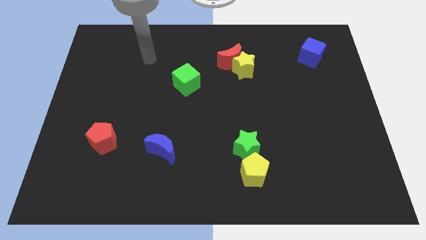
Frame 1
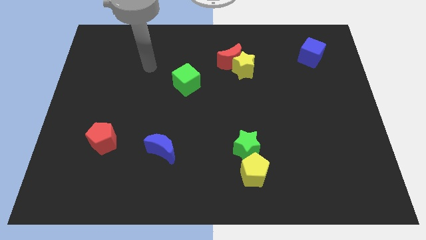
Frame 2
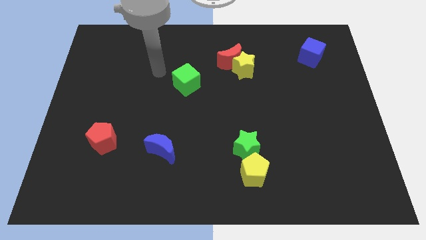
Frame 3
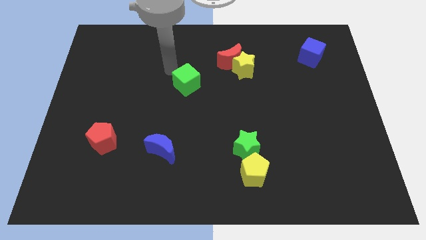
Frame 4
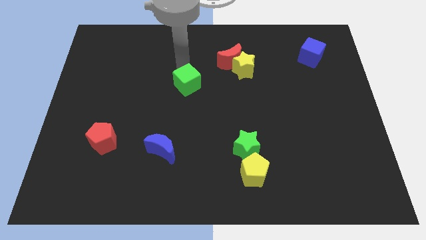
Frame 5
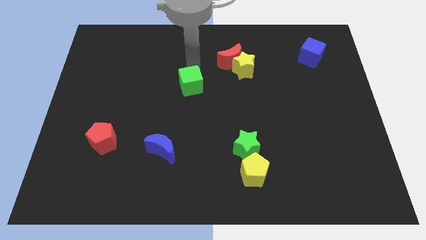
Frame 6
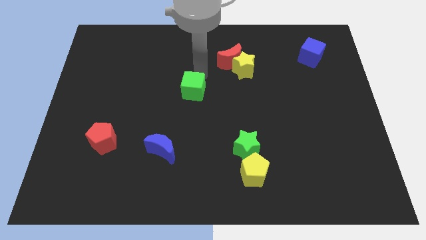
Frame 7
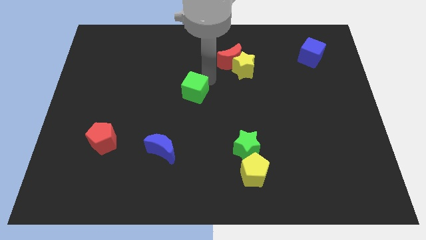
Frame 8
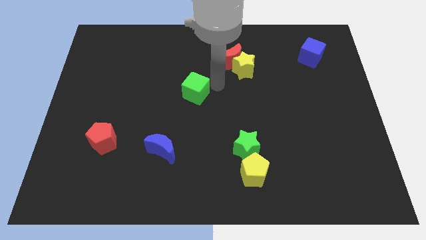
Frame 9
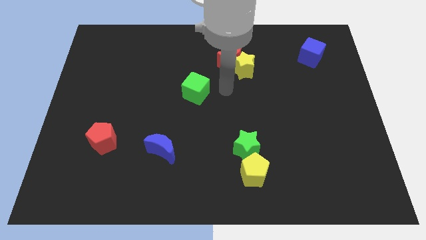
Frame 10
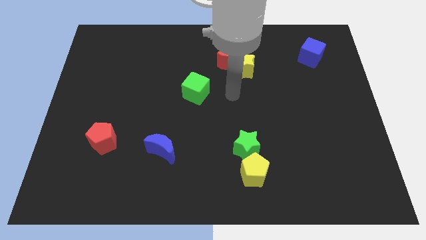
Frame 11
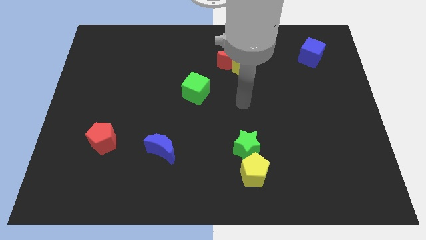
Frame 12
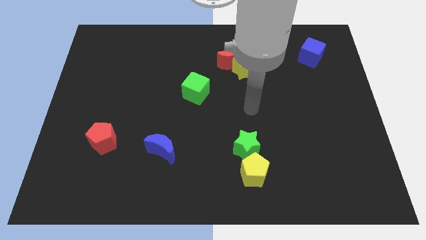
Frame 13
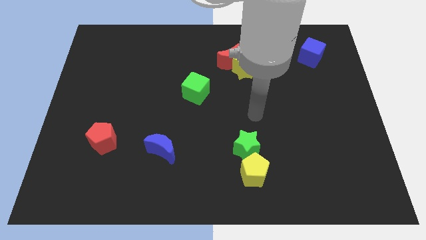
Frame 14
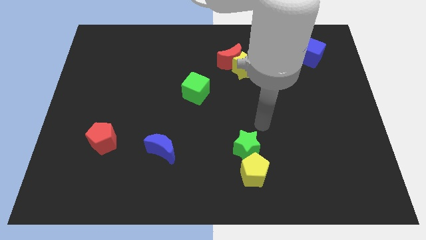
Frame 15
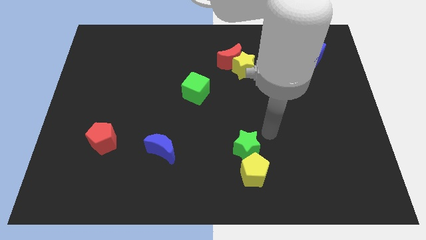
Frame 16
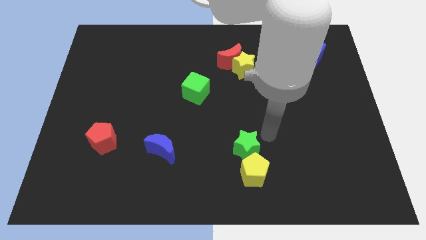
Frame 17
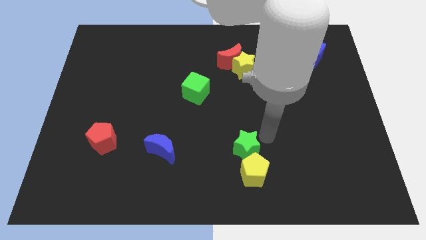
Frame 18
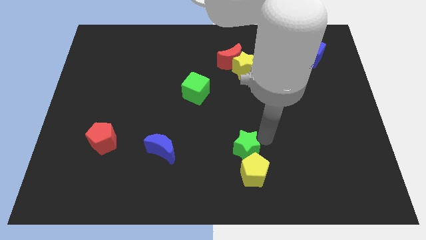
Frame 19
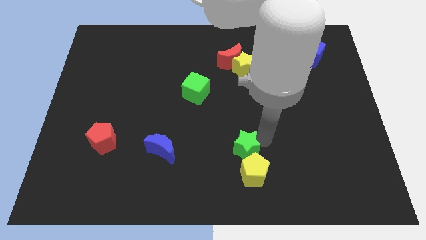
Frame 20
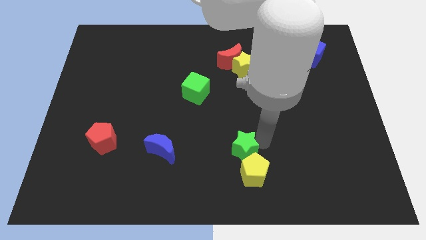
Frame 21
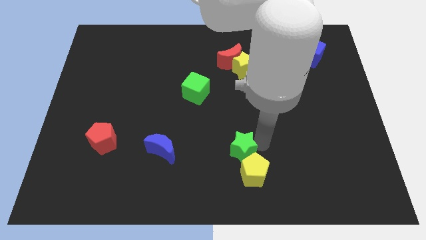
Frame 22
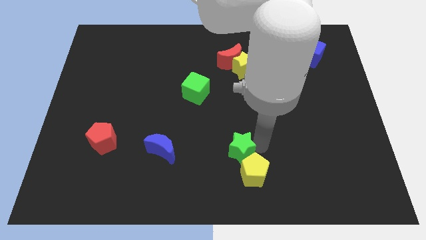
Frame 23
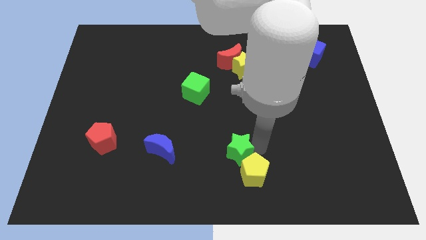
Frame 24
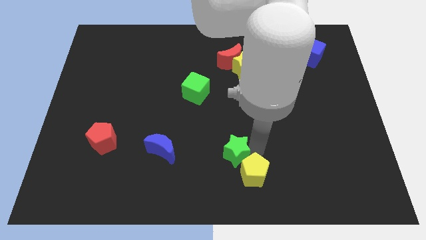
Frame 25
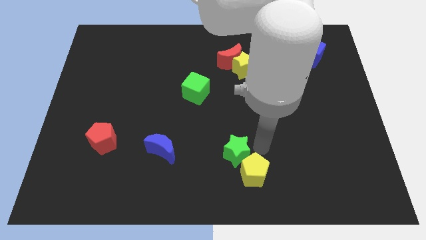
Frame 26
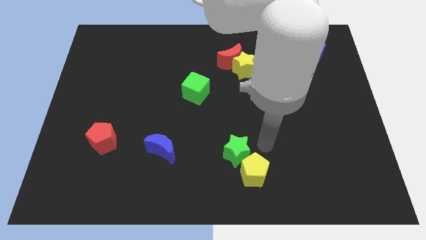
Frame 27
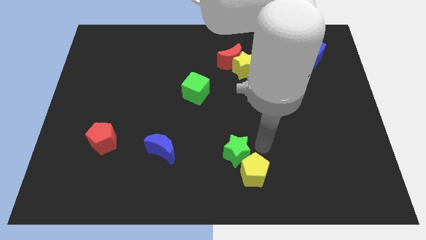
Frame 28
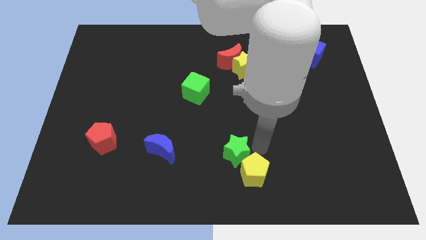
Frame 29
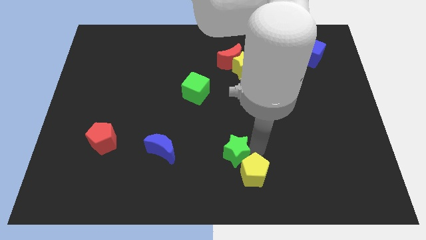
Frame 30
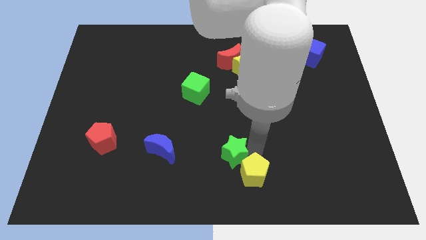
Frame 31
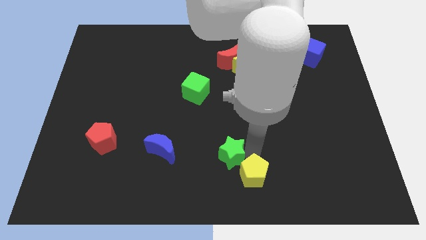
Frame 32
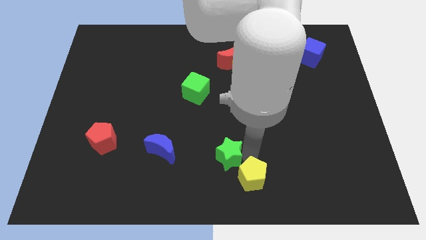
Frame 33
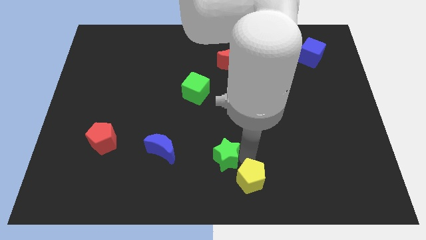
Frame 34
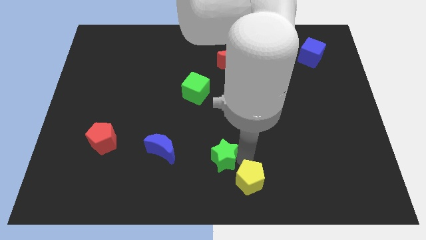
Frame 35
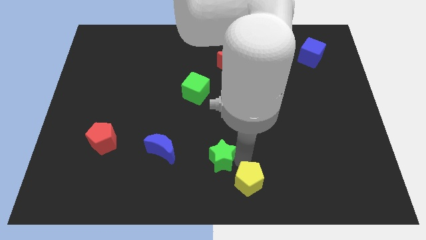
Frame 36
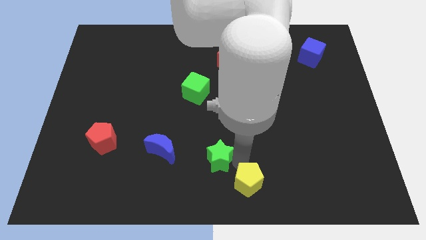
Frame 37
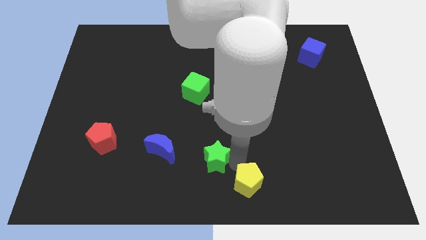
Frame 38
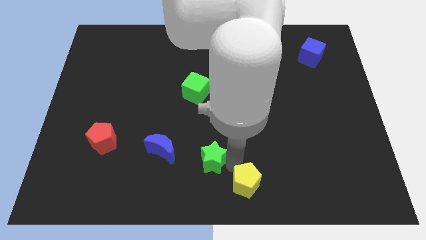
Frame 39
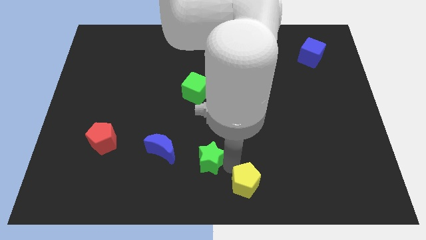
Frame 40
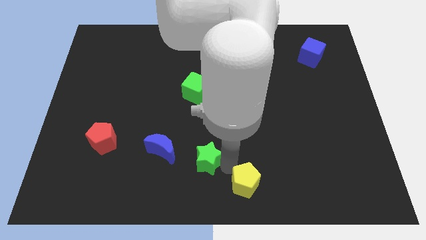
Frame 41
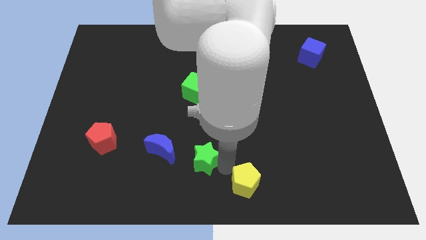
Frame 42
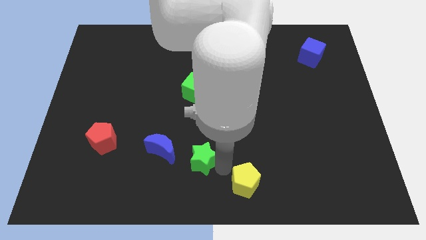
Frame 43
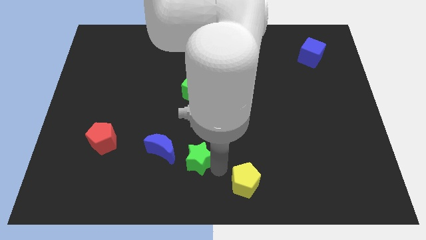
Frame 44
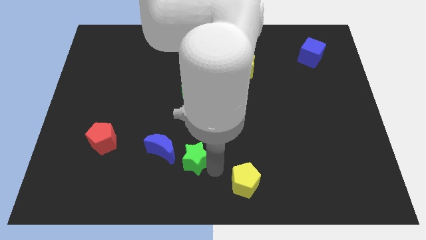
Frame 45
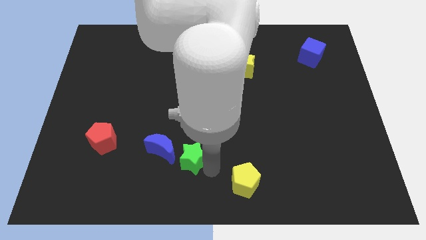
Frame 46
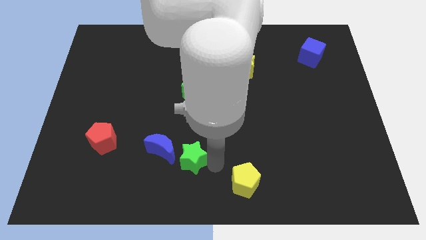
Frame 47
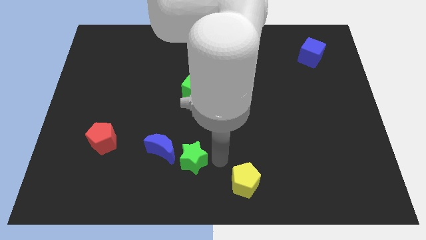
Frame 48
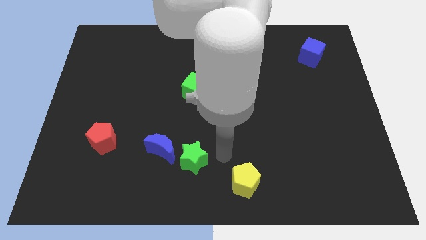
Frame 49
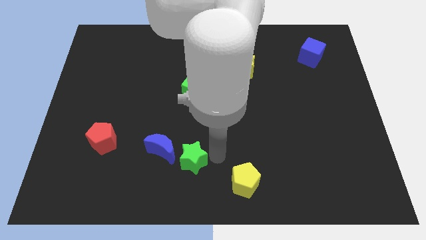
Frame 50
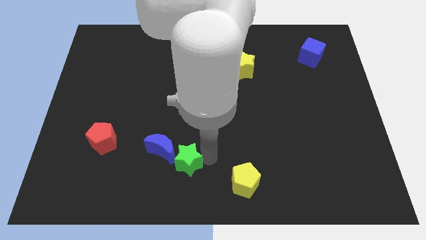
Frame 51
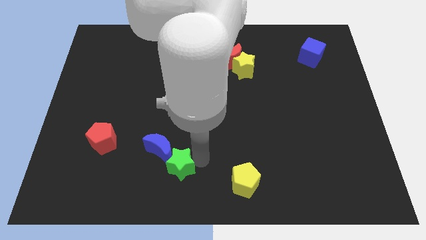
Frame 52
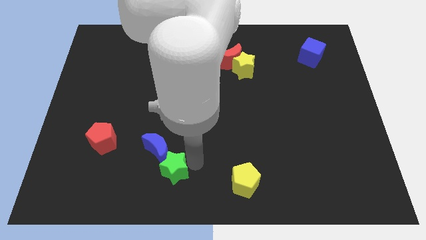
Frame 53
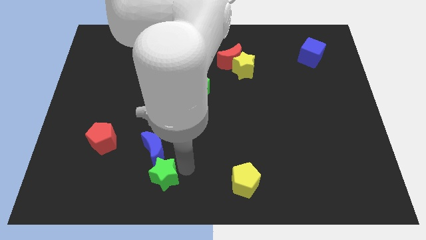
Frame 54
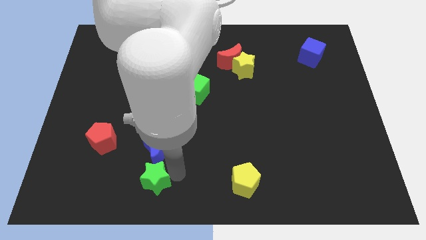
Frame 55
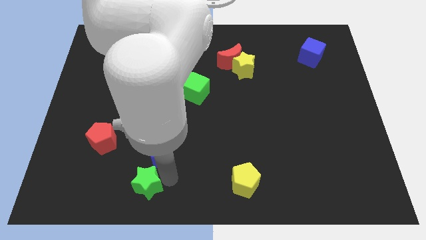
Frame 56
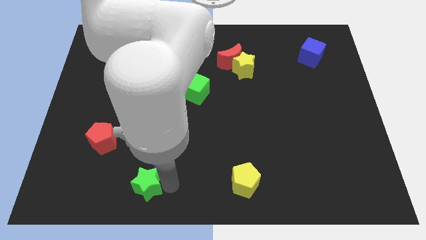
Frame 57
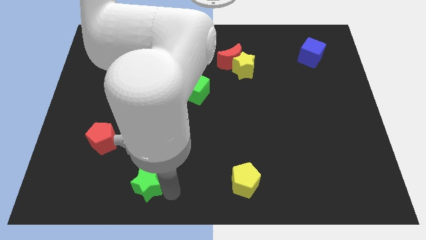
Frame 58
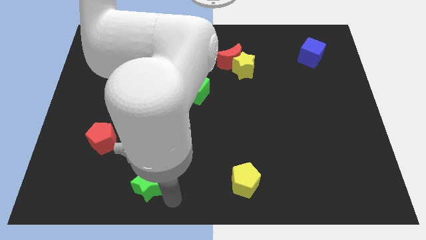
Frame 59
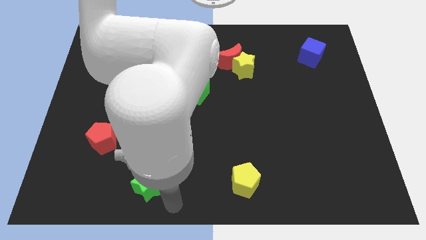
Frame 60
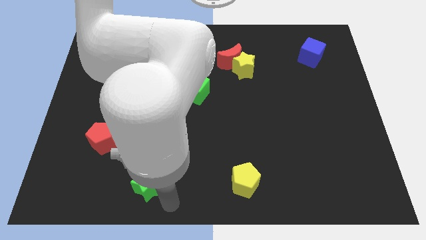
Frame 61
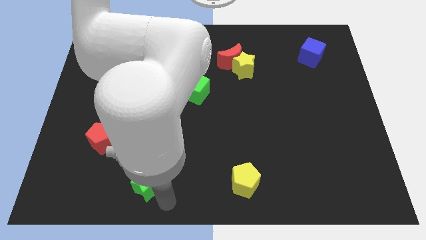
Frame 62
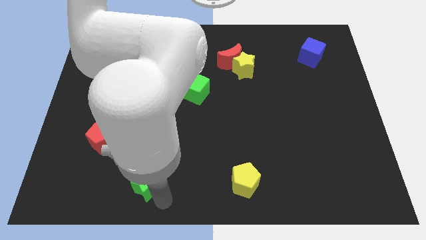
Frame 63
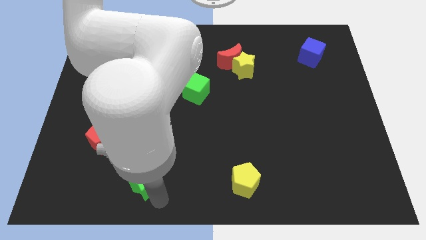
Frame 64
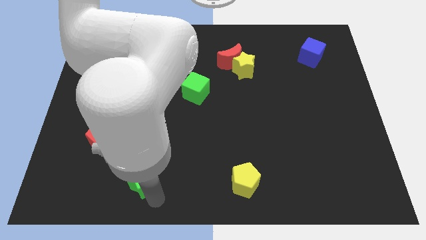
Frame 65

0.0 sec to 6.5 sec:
move the green star to the bottom left of the blue moon

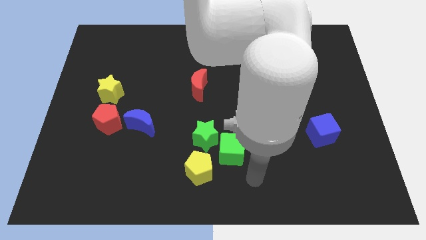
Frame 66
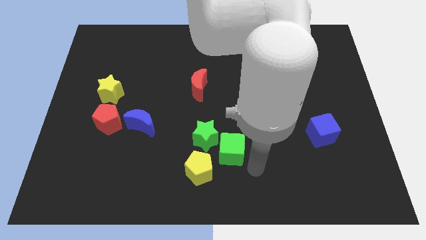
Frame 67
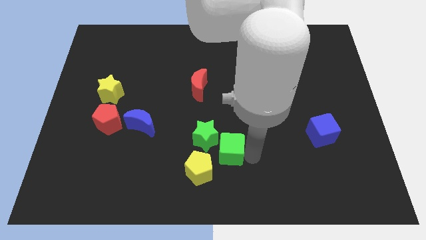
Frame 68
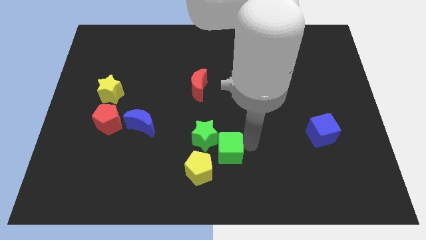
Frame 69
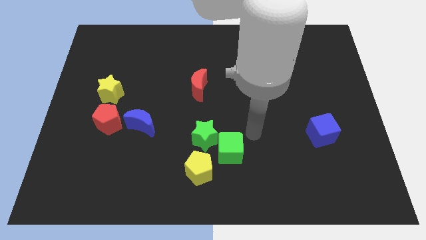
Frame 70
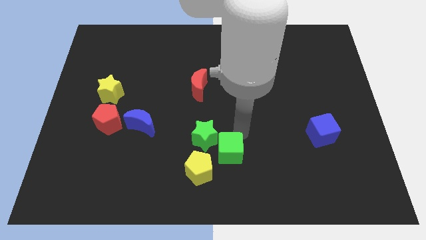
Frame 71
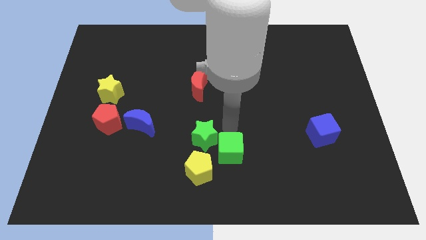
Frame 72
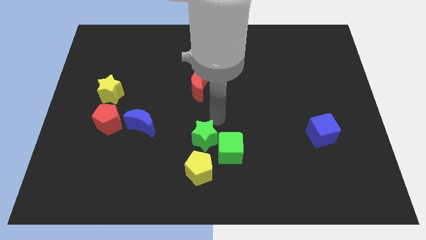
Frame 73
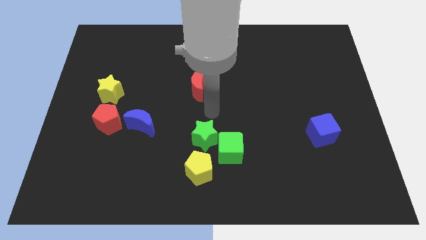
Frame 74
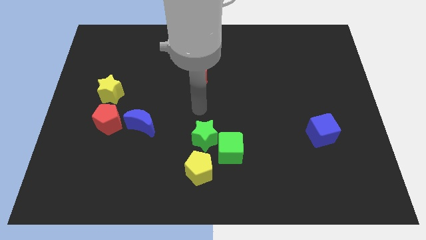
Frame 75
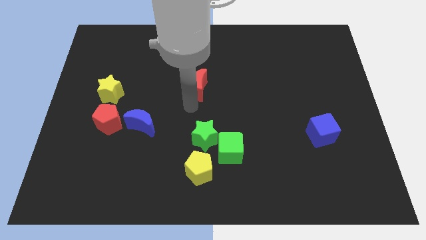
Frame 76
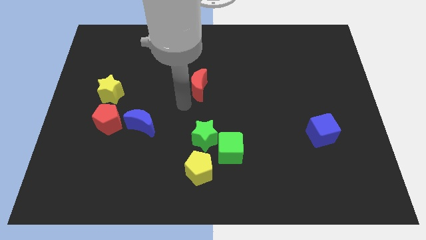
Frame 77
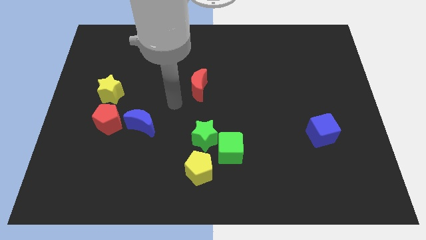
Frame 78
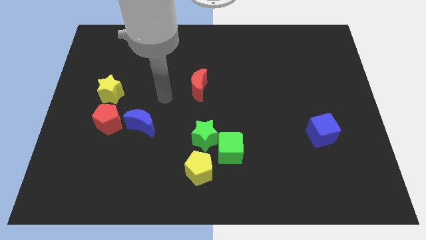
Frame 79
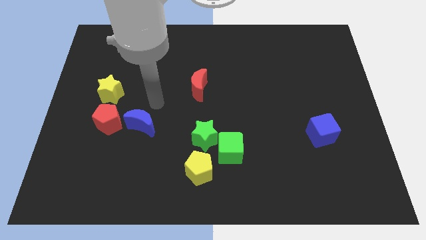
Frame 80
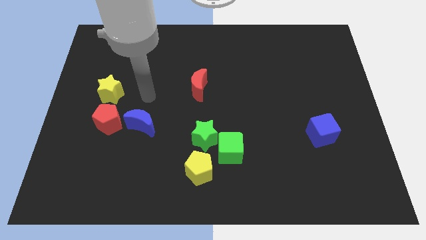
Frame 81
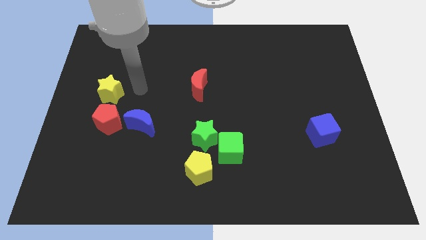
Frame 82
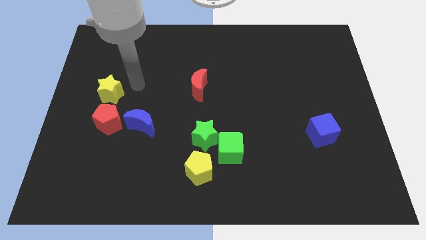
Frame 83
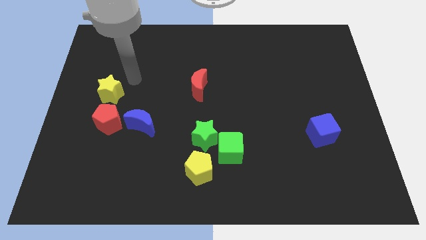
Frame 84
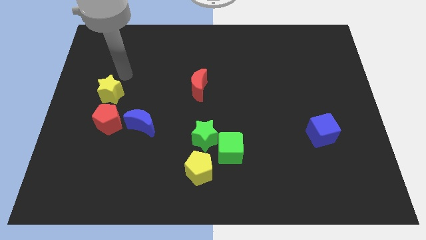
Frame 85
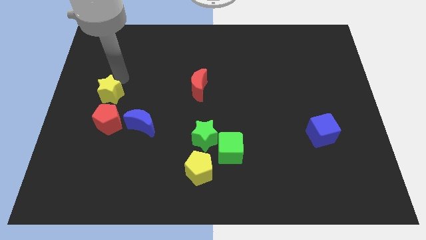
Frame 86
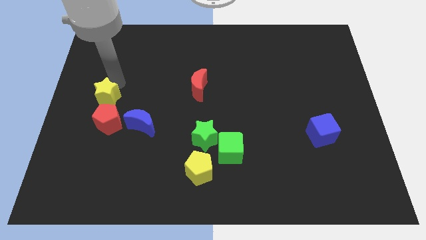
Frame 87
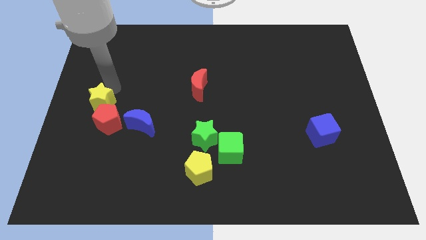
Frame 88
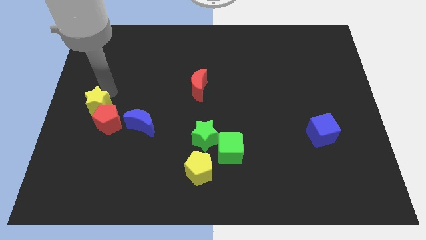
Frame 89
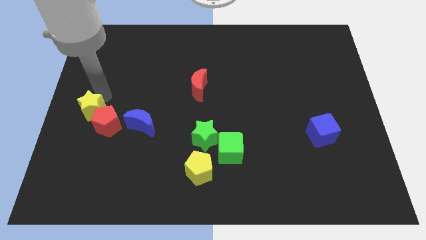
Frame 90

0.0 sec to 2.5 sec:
put the yellow star to the left side of the blue moon
